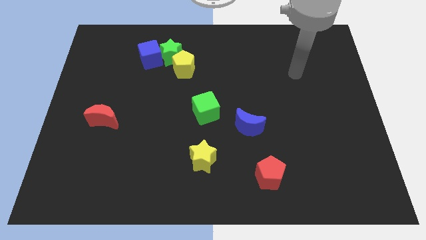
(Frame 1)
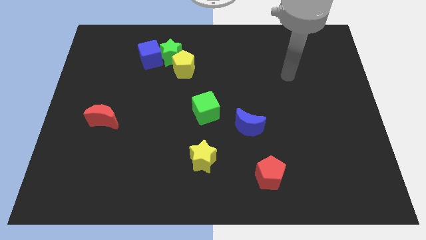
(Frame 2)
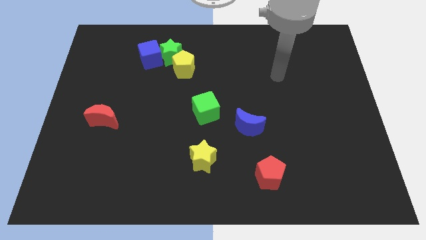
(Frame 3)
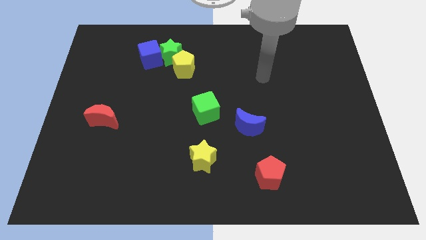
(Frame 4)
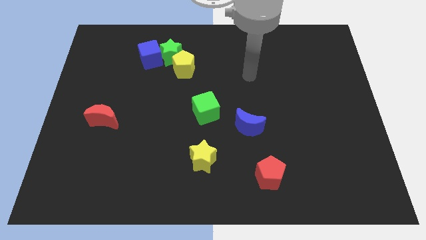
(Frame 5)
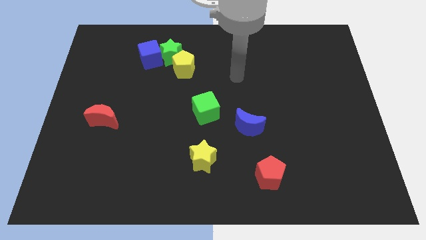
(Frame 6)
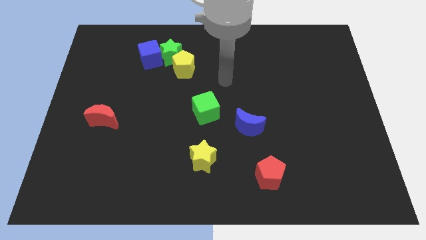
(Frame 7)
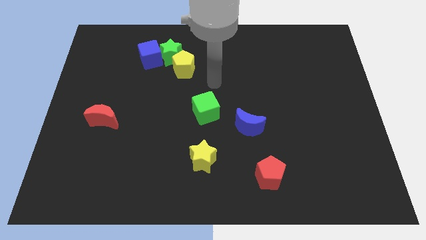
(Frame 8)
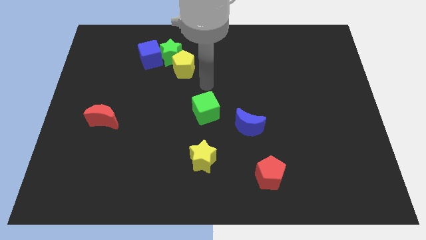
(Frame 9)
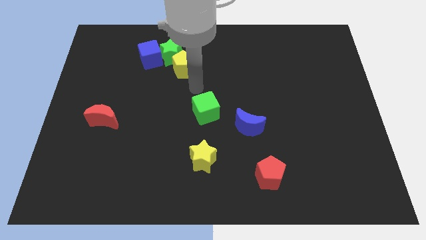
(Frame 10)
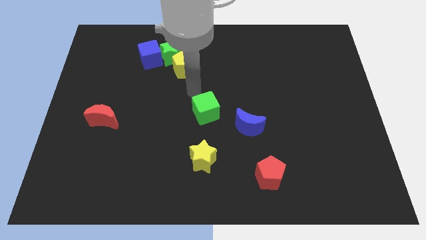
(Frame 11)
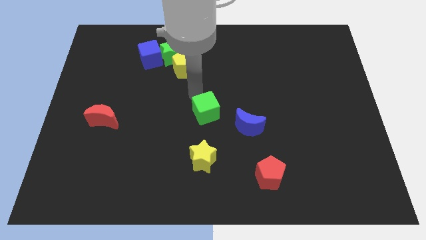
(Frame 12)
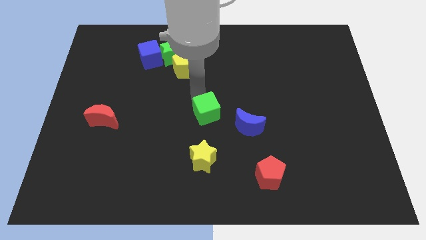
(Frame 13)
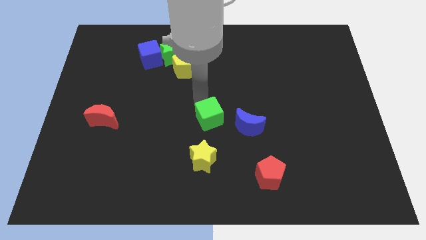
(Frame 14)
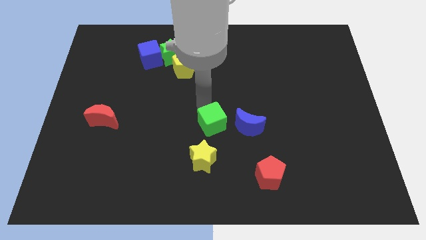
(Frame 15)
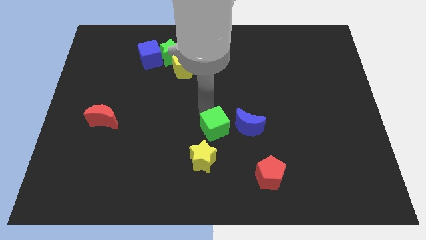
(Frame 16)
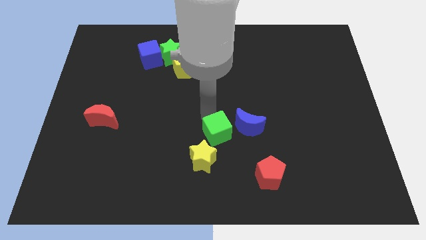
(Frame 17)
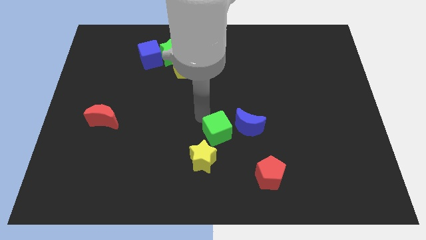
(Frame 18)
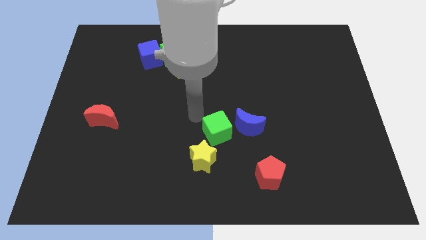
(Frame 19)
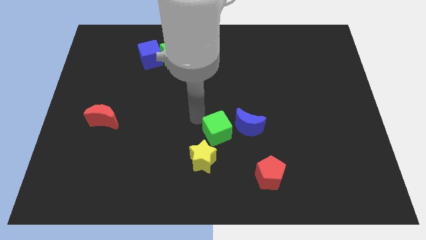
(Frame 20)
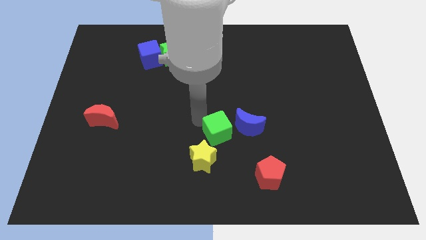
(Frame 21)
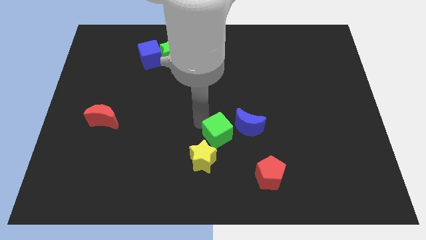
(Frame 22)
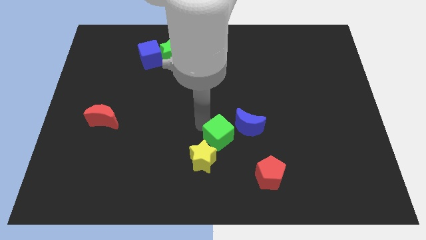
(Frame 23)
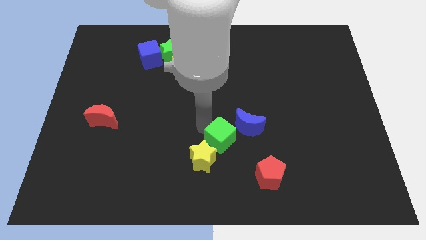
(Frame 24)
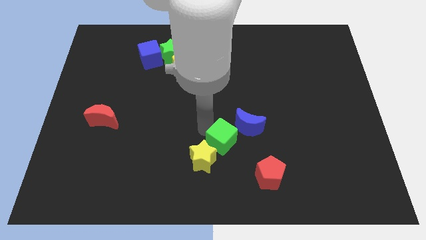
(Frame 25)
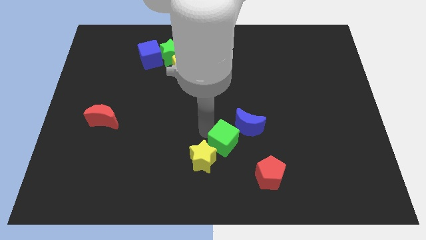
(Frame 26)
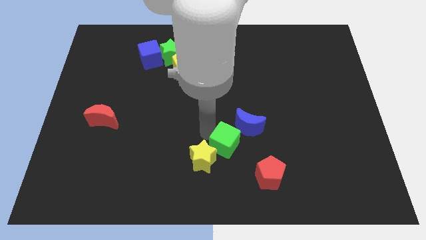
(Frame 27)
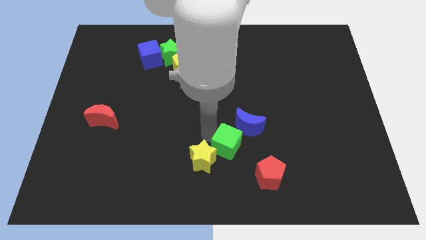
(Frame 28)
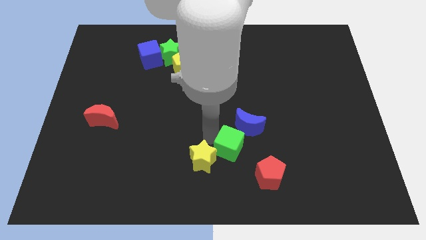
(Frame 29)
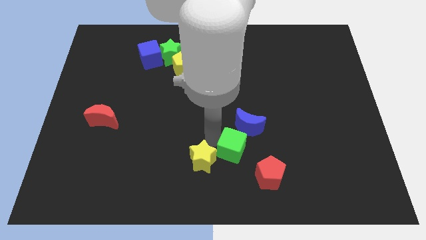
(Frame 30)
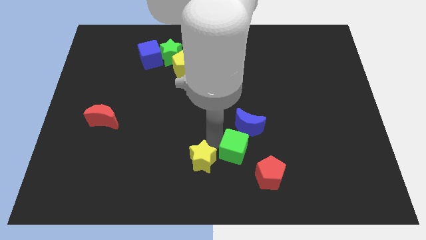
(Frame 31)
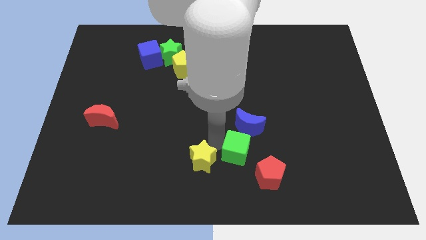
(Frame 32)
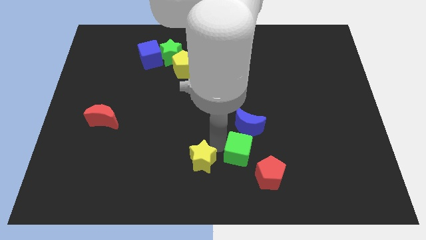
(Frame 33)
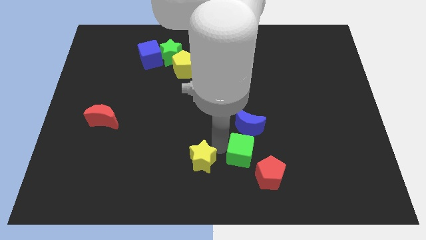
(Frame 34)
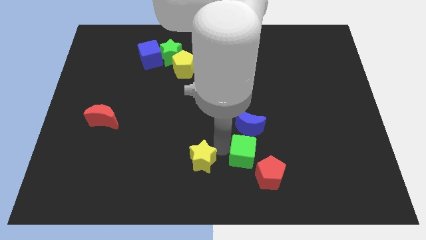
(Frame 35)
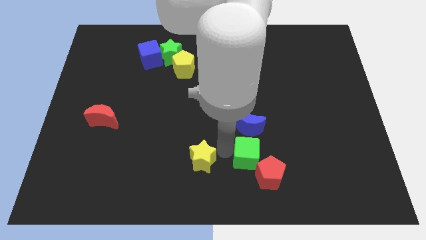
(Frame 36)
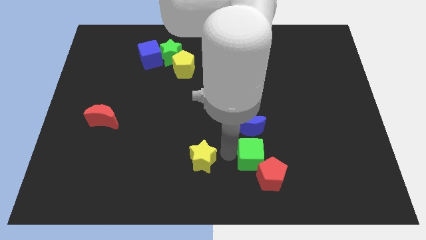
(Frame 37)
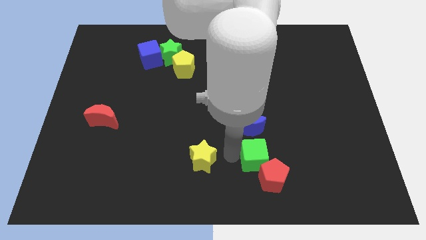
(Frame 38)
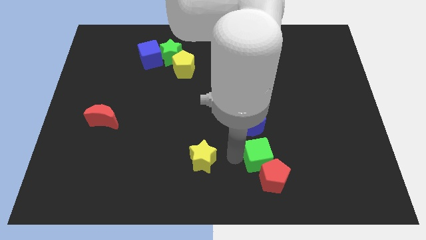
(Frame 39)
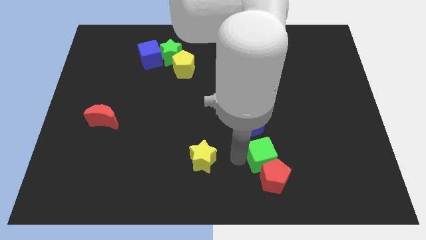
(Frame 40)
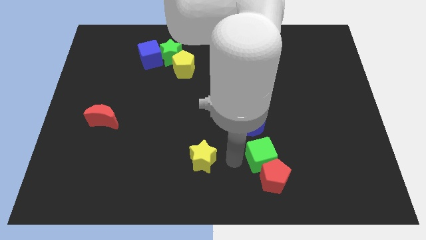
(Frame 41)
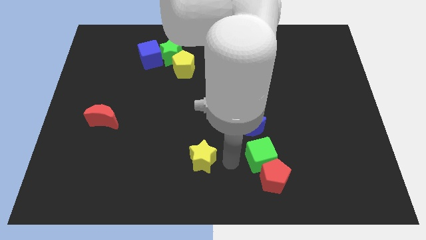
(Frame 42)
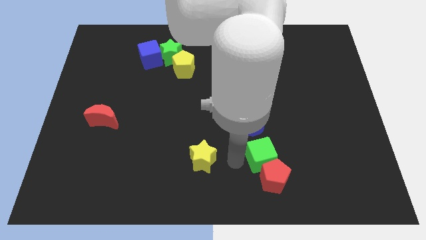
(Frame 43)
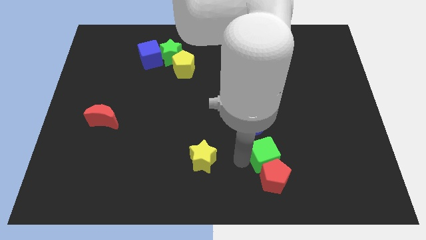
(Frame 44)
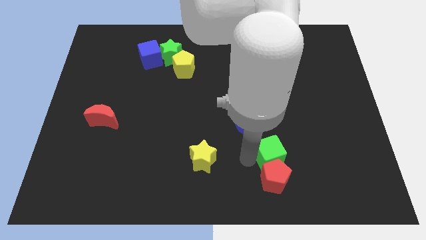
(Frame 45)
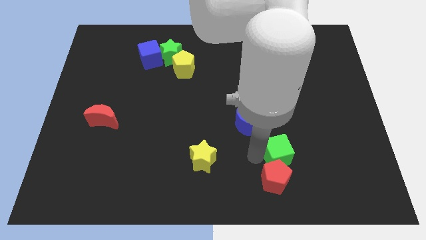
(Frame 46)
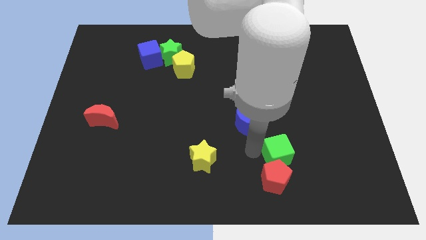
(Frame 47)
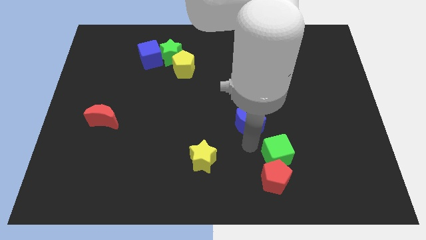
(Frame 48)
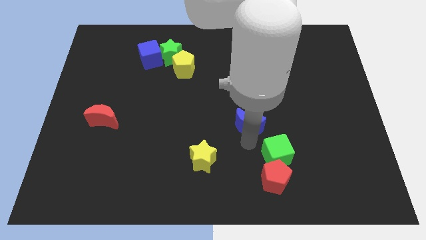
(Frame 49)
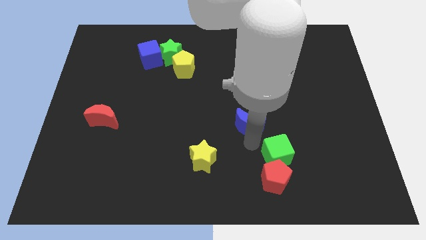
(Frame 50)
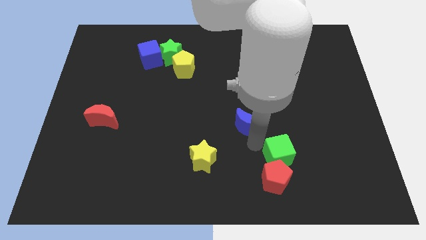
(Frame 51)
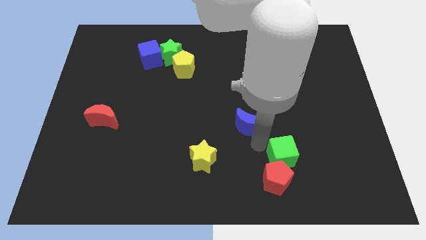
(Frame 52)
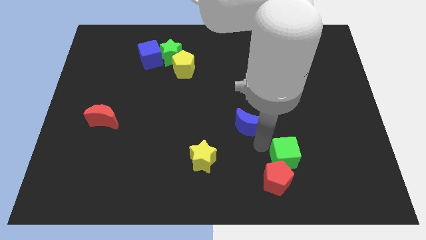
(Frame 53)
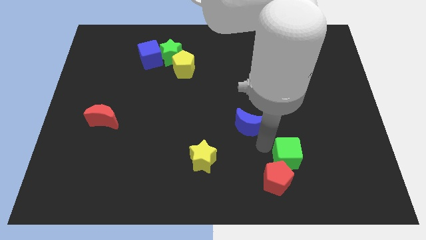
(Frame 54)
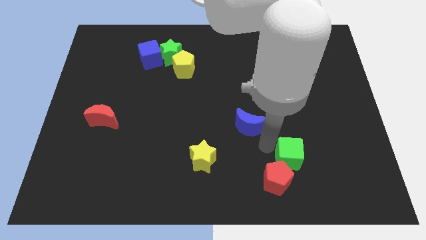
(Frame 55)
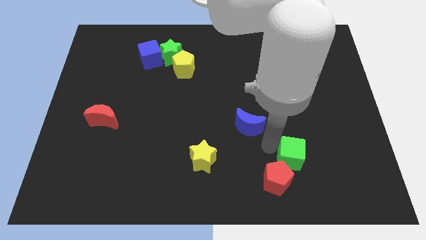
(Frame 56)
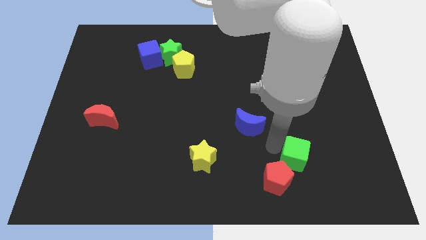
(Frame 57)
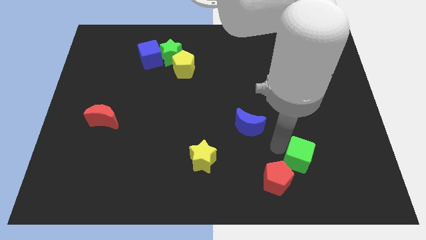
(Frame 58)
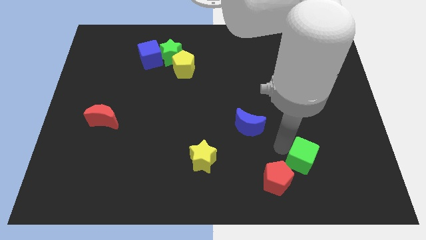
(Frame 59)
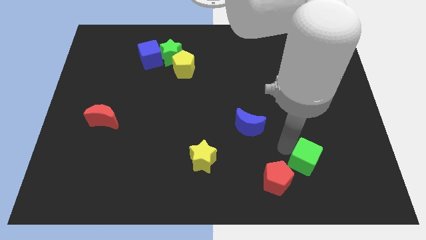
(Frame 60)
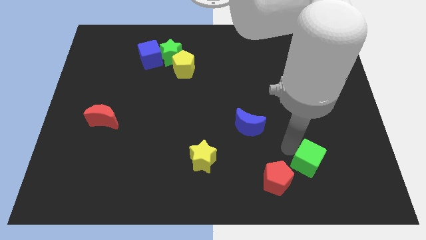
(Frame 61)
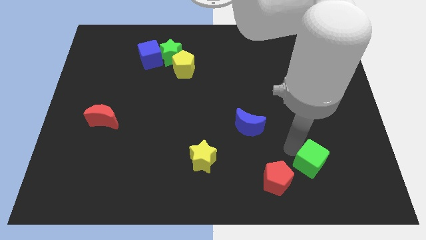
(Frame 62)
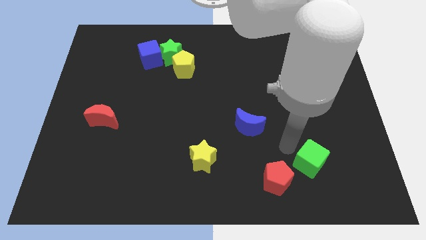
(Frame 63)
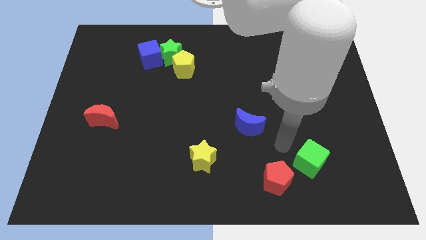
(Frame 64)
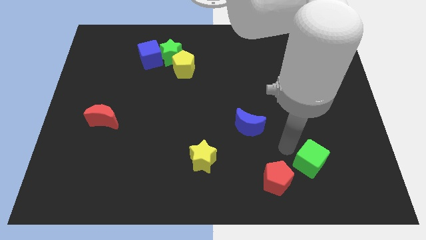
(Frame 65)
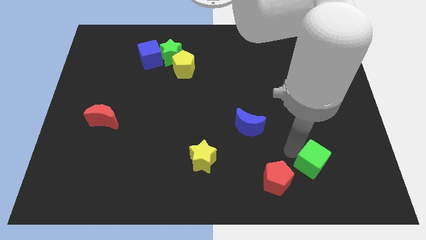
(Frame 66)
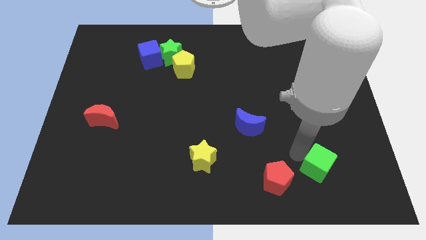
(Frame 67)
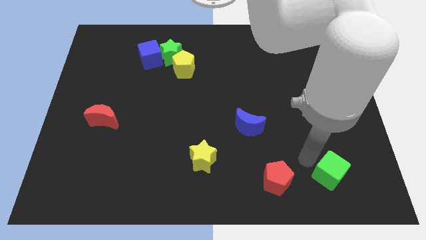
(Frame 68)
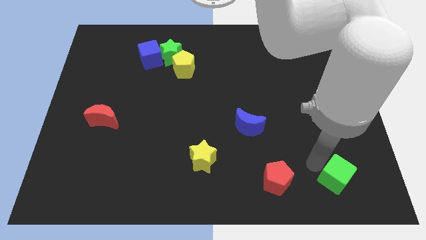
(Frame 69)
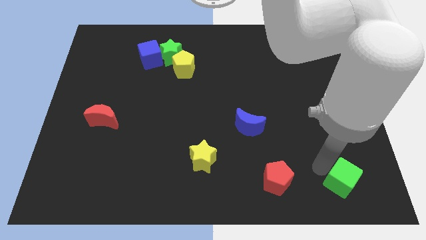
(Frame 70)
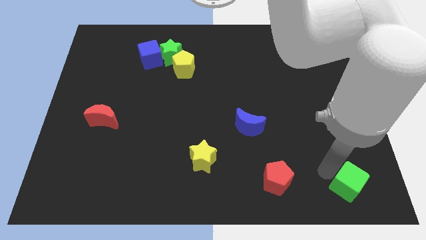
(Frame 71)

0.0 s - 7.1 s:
slide the green cube to the lower right corner
